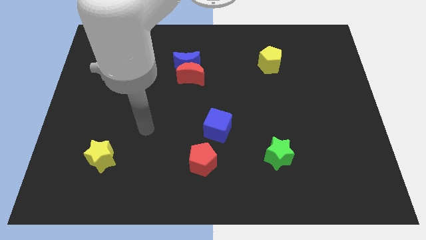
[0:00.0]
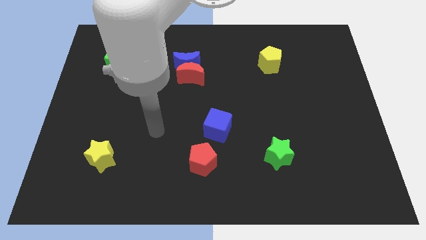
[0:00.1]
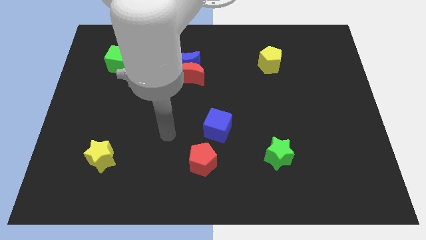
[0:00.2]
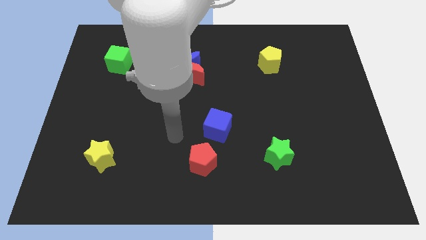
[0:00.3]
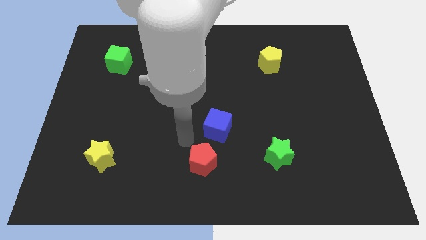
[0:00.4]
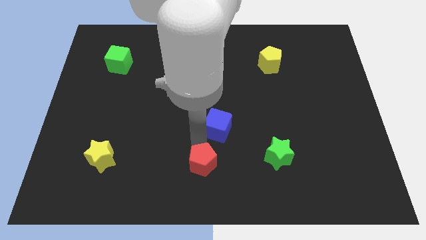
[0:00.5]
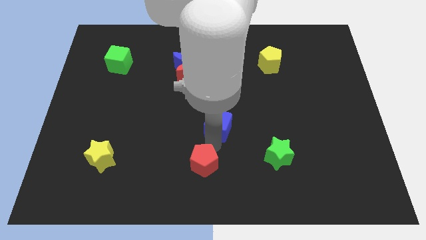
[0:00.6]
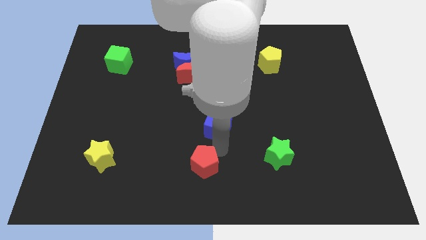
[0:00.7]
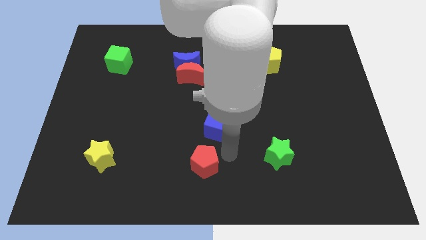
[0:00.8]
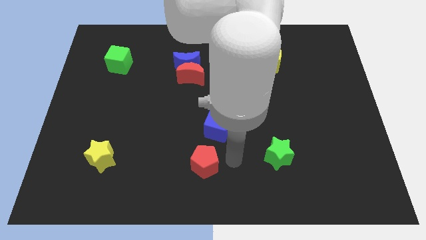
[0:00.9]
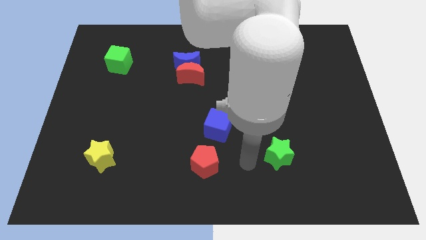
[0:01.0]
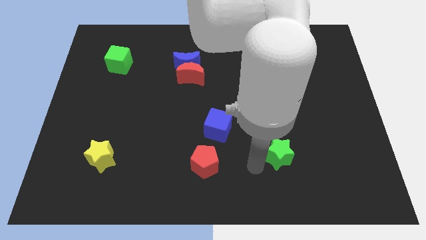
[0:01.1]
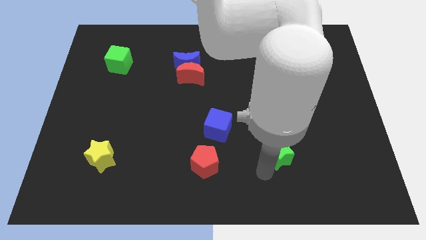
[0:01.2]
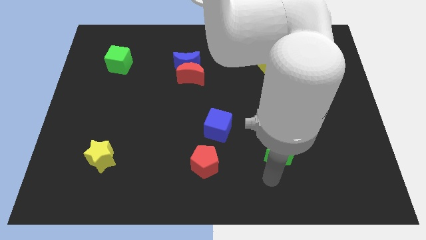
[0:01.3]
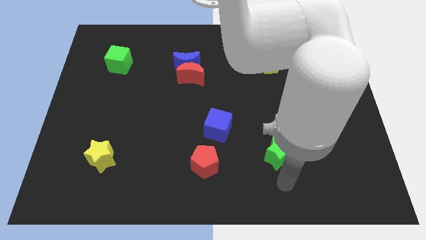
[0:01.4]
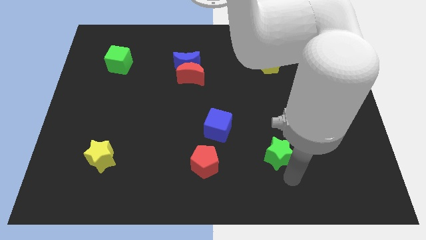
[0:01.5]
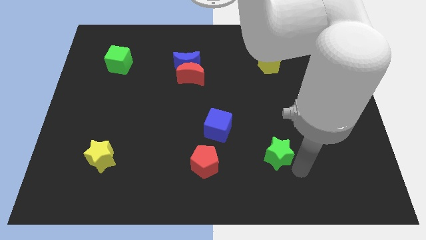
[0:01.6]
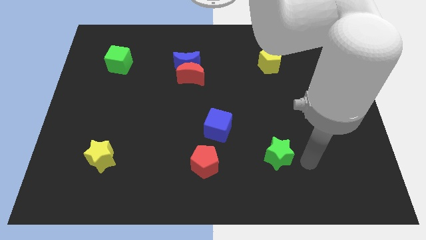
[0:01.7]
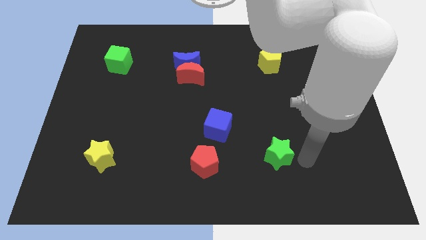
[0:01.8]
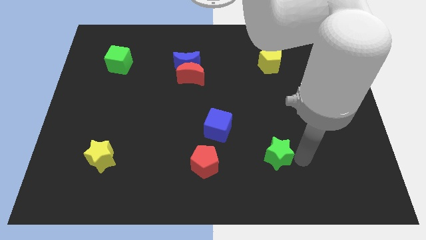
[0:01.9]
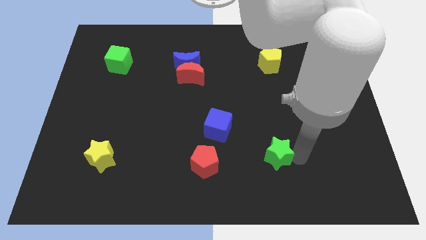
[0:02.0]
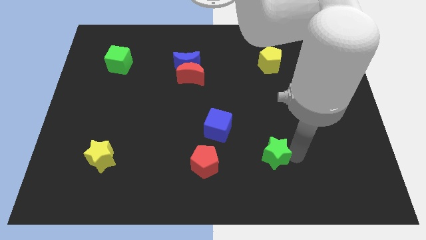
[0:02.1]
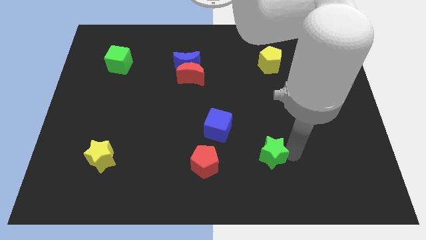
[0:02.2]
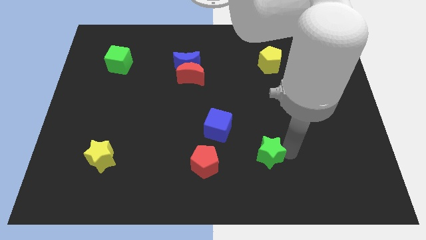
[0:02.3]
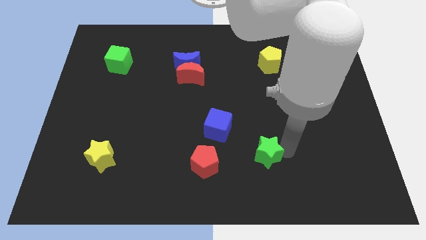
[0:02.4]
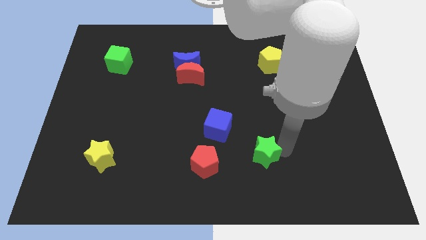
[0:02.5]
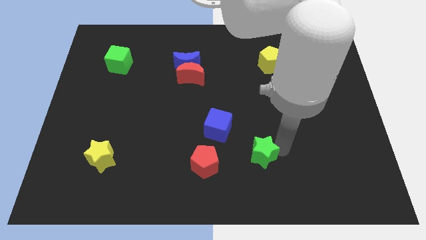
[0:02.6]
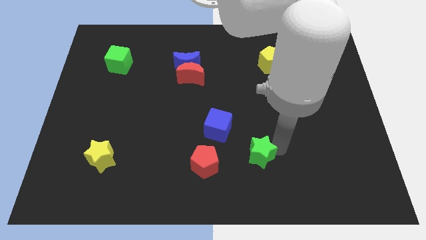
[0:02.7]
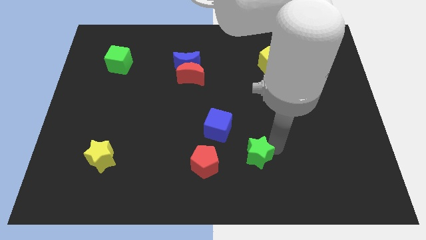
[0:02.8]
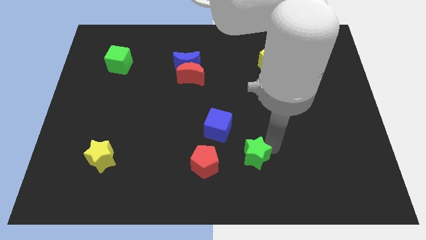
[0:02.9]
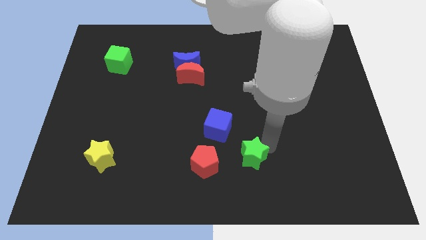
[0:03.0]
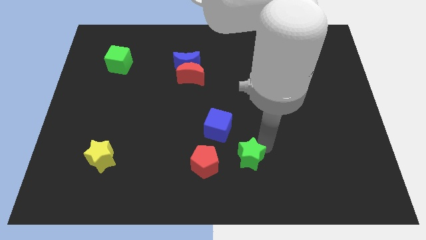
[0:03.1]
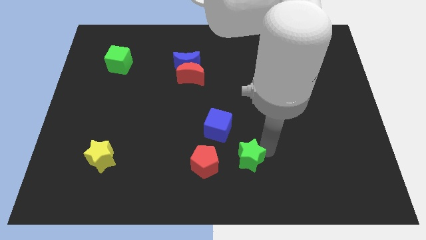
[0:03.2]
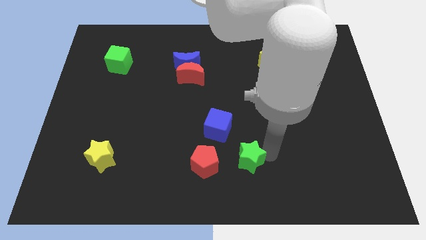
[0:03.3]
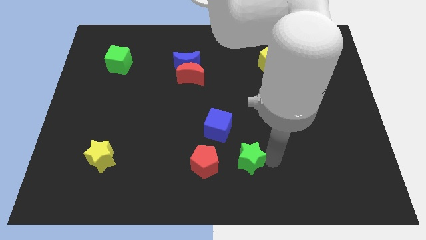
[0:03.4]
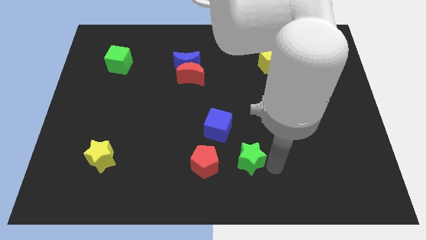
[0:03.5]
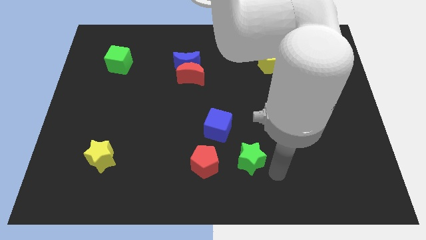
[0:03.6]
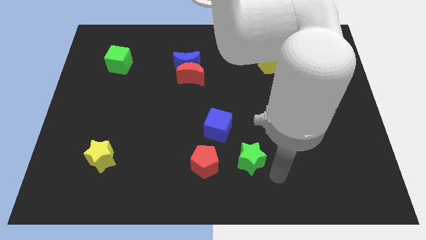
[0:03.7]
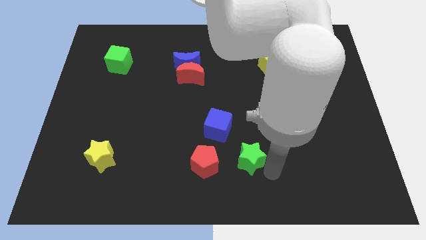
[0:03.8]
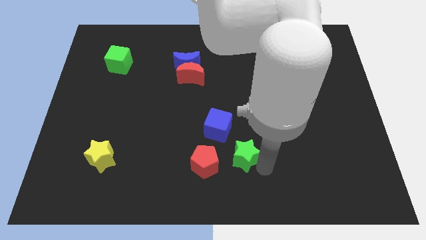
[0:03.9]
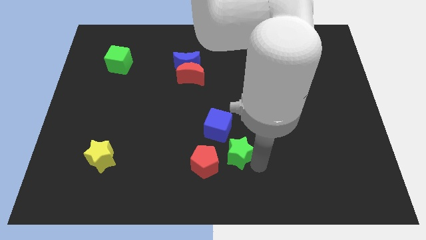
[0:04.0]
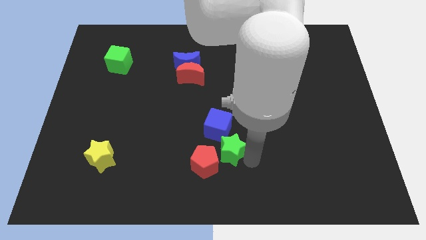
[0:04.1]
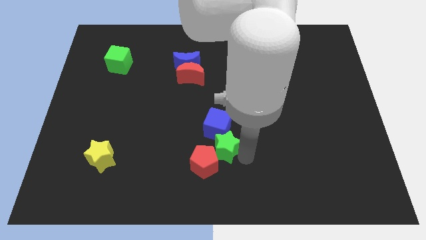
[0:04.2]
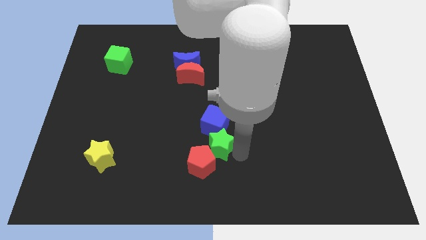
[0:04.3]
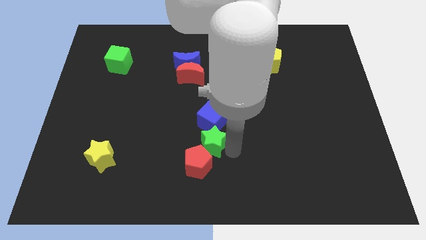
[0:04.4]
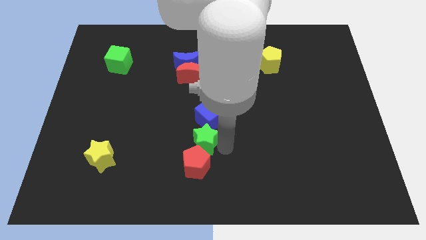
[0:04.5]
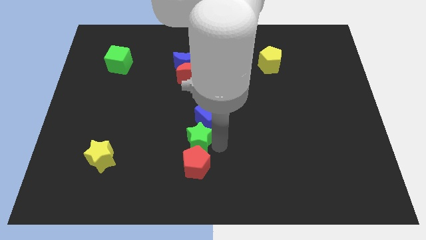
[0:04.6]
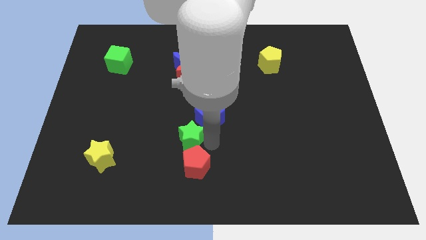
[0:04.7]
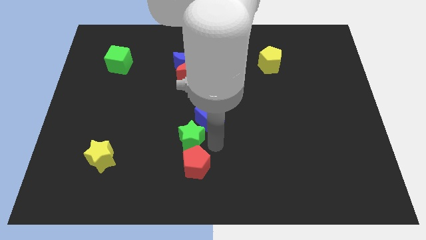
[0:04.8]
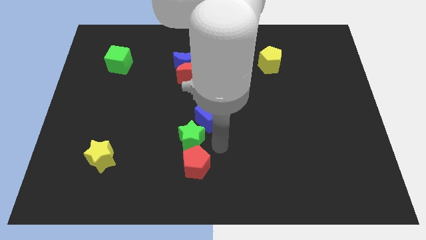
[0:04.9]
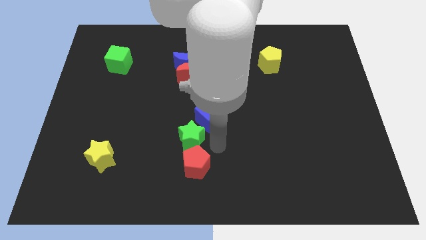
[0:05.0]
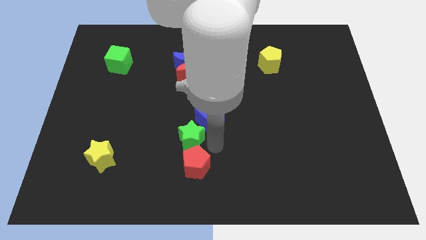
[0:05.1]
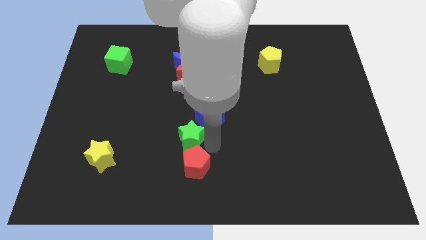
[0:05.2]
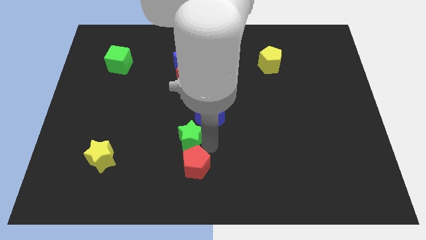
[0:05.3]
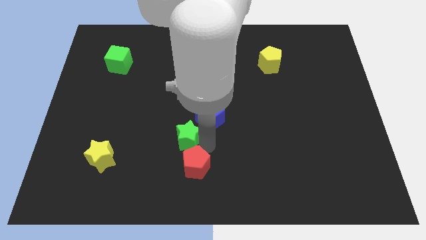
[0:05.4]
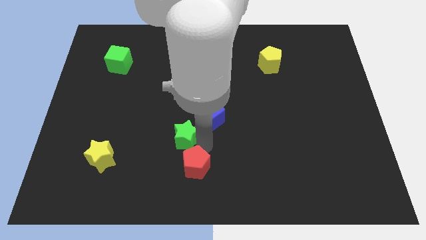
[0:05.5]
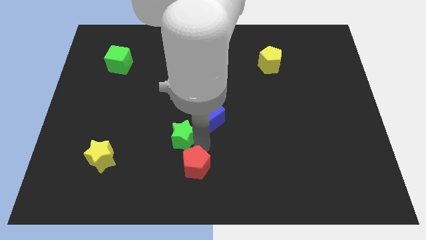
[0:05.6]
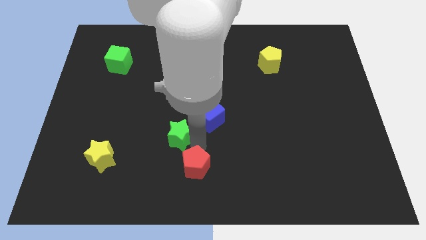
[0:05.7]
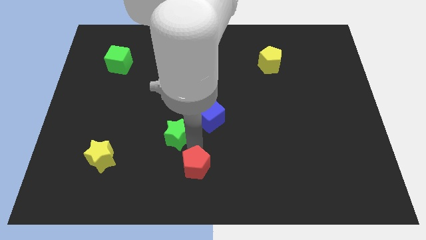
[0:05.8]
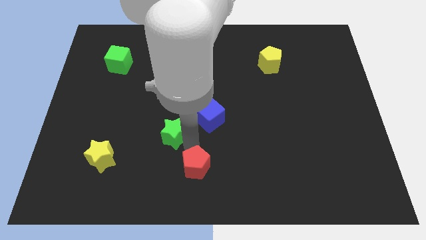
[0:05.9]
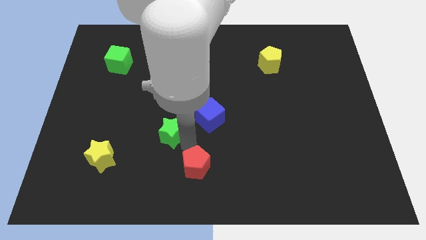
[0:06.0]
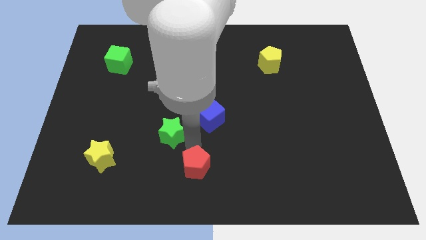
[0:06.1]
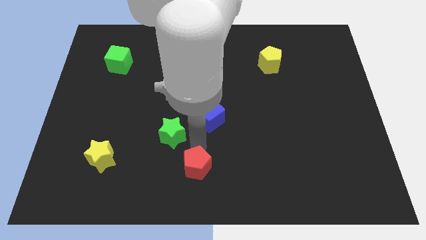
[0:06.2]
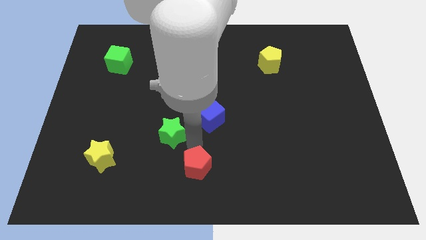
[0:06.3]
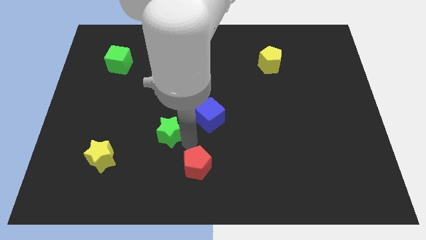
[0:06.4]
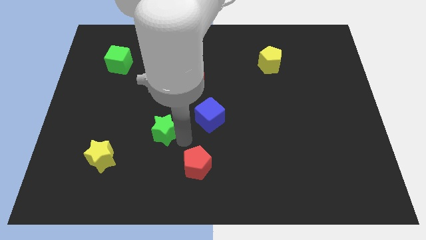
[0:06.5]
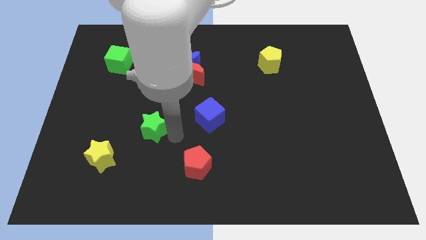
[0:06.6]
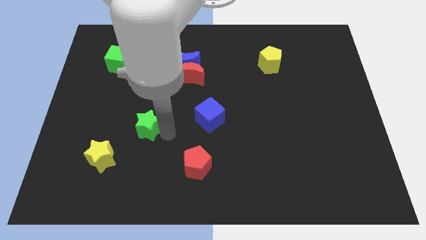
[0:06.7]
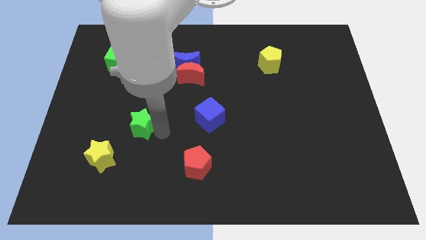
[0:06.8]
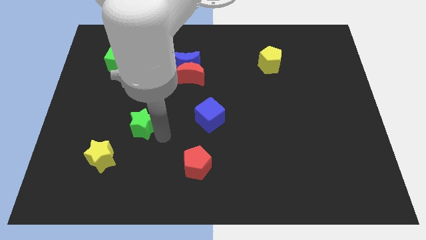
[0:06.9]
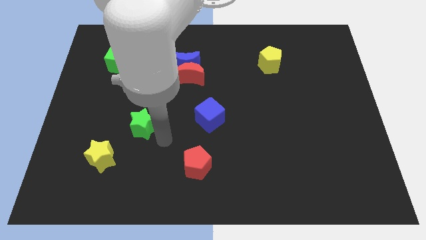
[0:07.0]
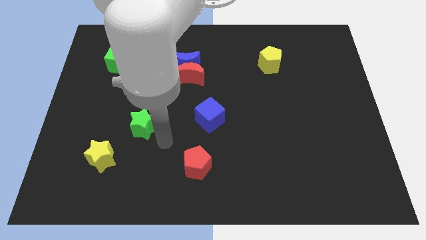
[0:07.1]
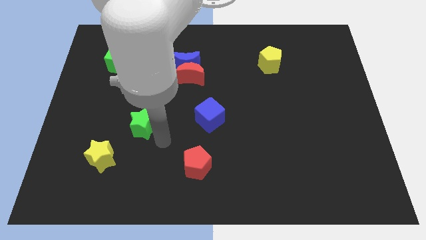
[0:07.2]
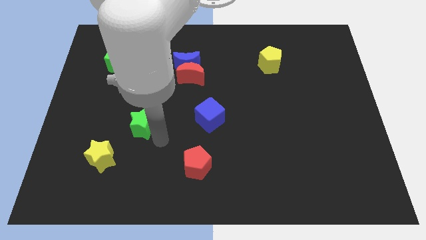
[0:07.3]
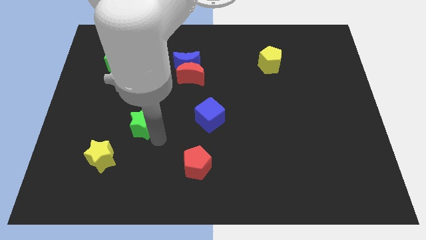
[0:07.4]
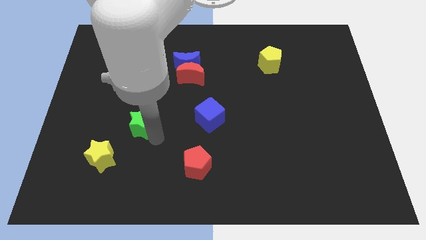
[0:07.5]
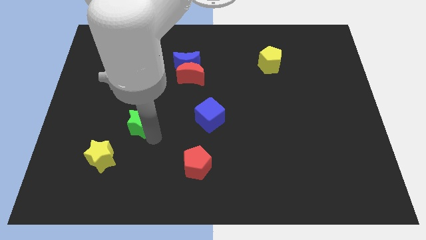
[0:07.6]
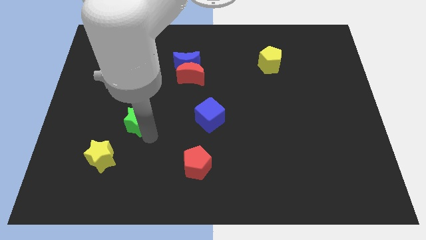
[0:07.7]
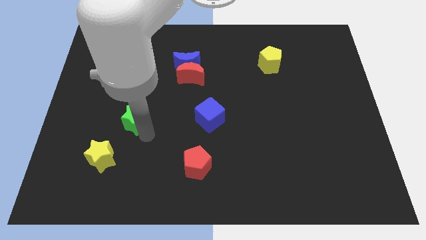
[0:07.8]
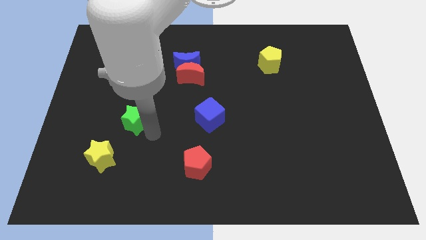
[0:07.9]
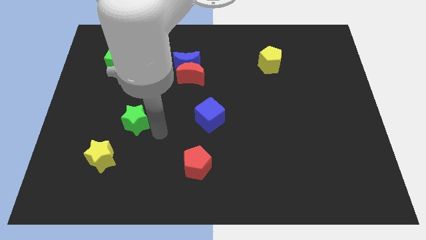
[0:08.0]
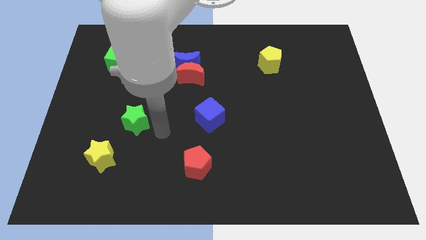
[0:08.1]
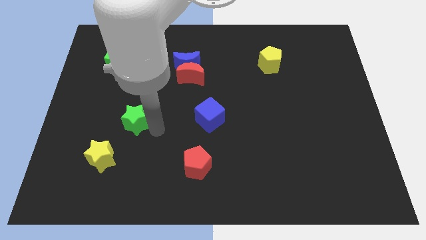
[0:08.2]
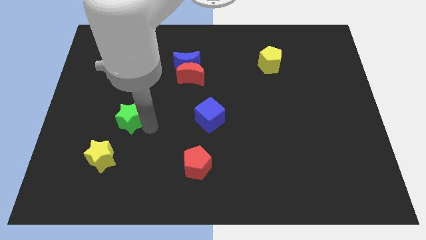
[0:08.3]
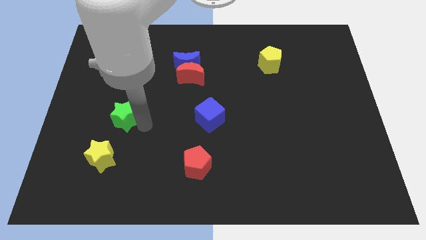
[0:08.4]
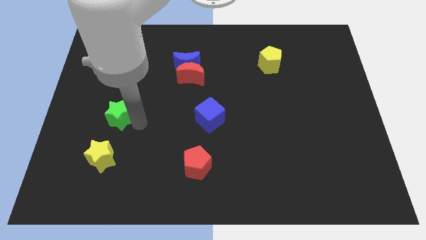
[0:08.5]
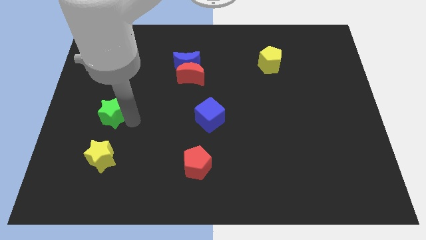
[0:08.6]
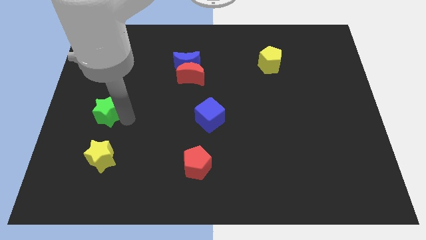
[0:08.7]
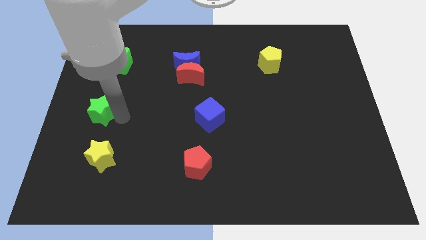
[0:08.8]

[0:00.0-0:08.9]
put the green star to the center left
